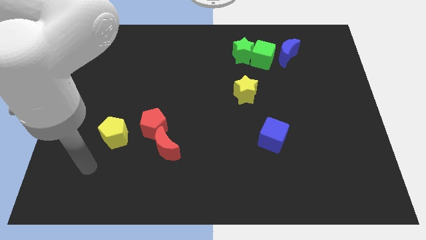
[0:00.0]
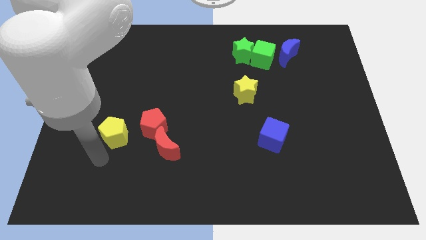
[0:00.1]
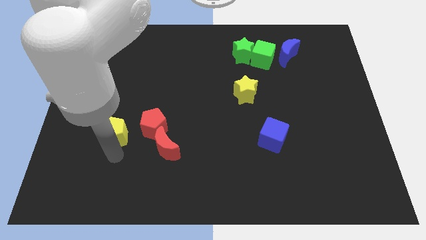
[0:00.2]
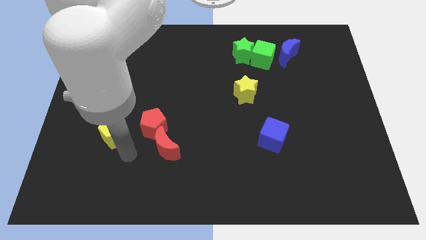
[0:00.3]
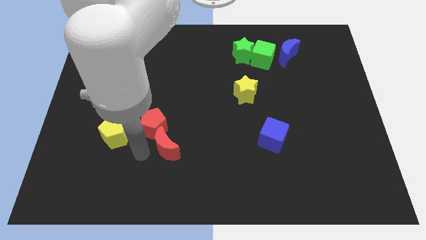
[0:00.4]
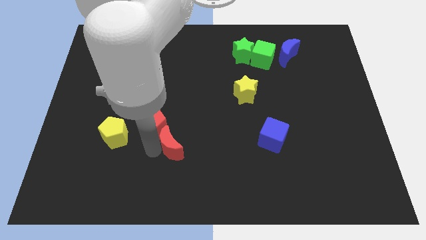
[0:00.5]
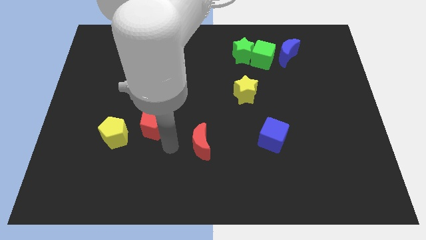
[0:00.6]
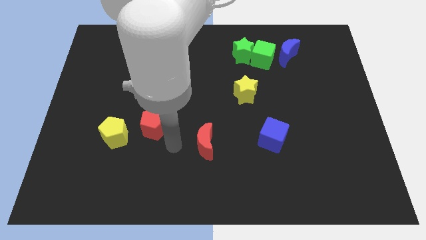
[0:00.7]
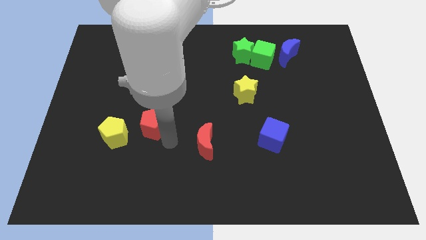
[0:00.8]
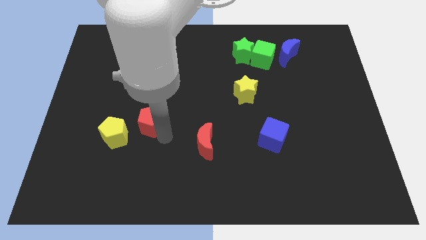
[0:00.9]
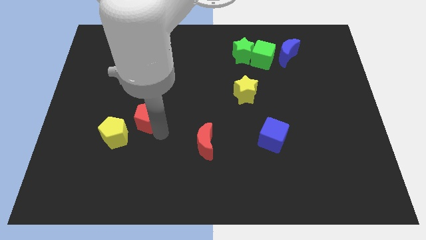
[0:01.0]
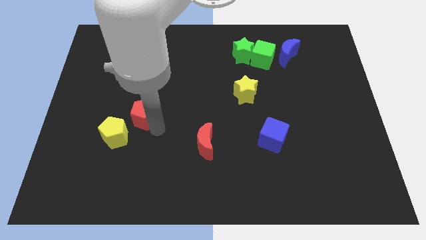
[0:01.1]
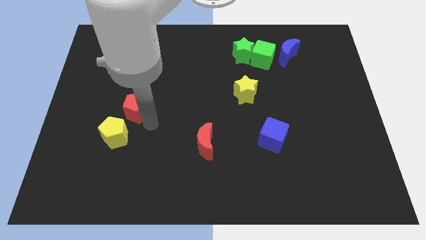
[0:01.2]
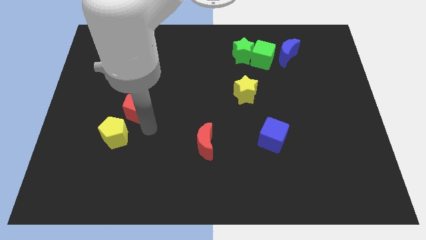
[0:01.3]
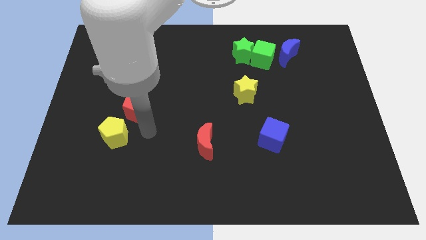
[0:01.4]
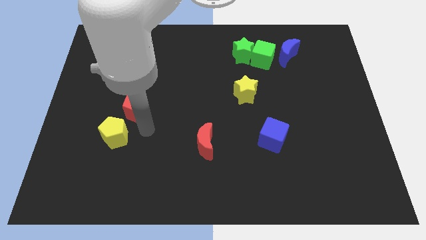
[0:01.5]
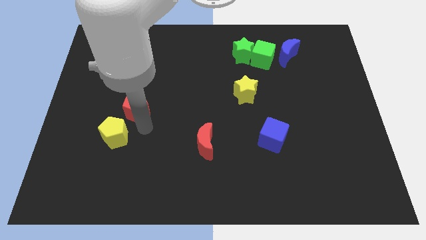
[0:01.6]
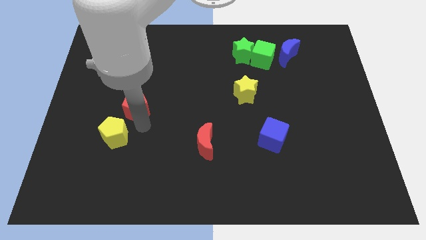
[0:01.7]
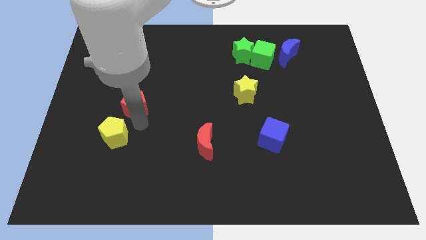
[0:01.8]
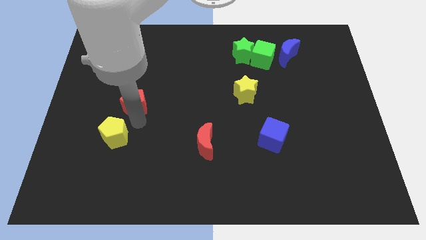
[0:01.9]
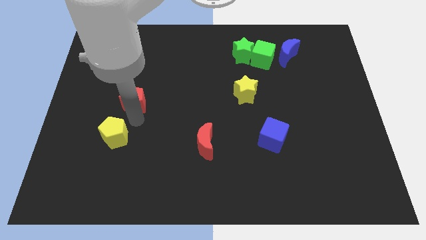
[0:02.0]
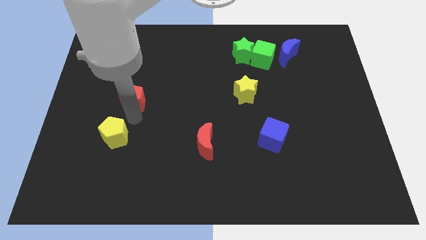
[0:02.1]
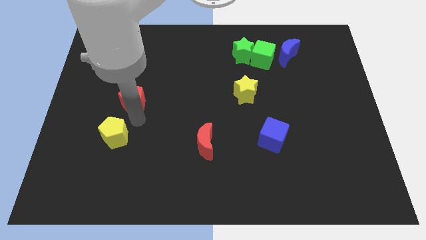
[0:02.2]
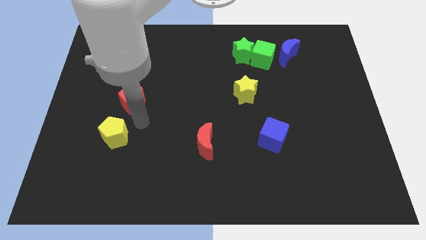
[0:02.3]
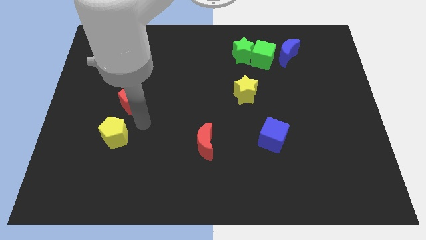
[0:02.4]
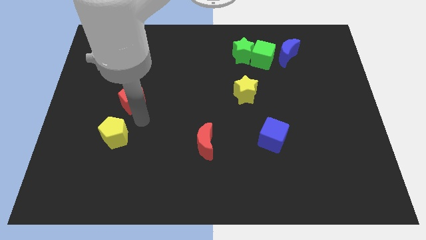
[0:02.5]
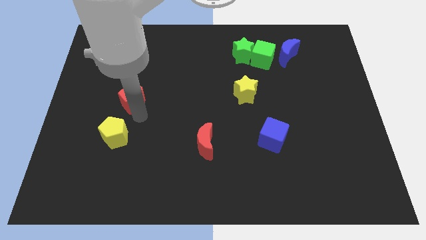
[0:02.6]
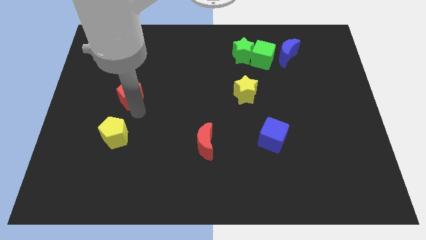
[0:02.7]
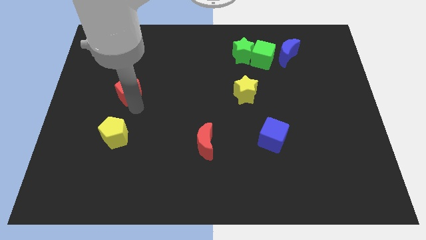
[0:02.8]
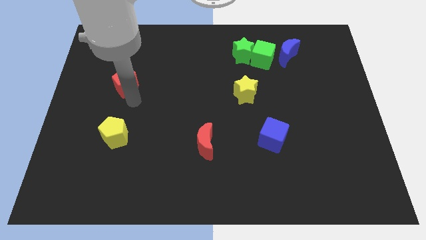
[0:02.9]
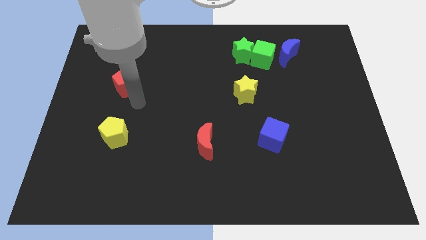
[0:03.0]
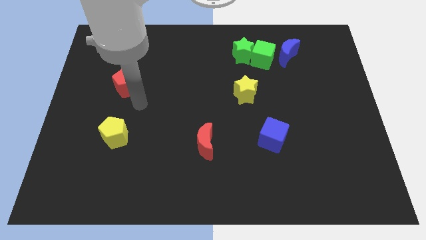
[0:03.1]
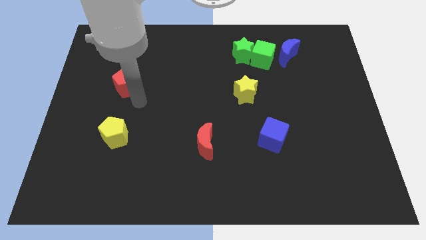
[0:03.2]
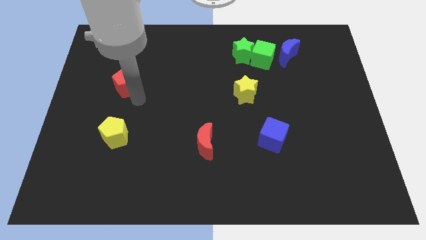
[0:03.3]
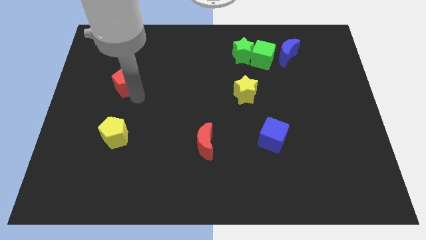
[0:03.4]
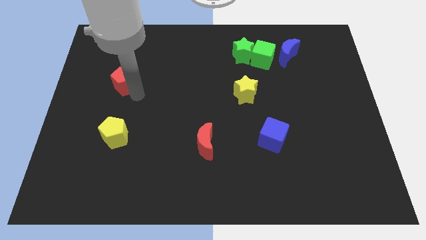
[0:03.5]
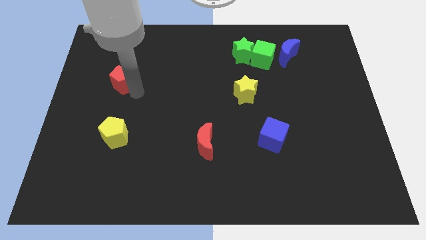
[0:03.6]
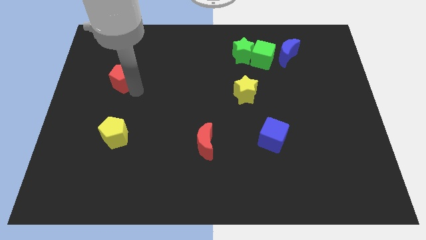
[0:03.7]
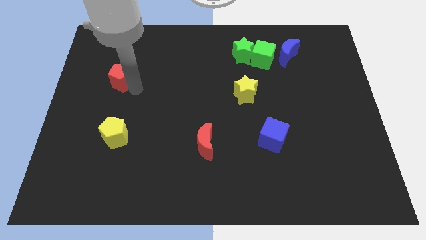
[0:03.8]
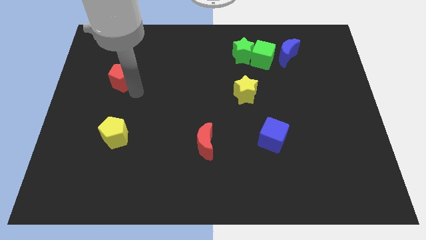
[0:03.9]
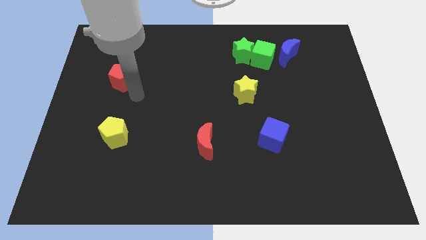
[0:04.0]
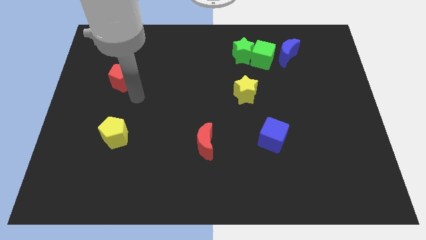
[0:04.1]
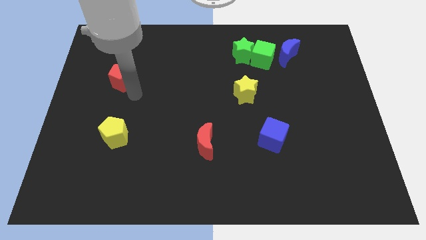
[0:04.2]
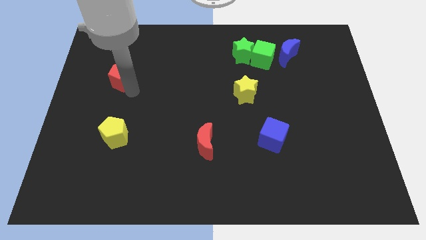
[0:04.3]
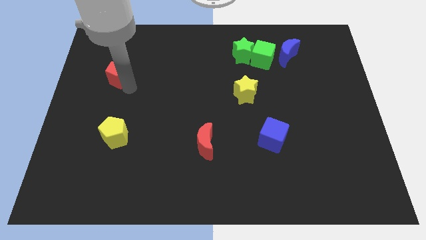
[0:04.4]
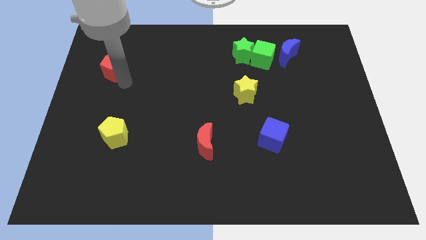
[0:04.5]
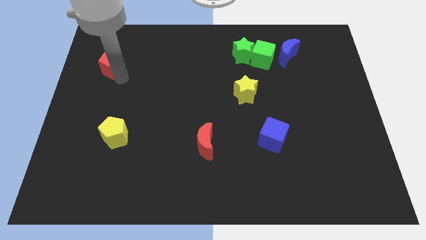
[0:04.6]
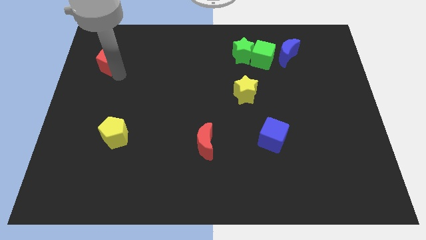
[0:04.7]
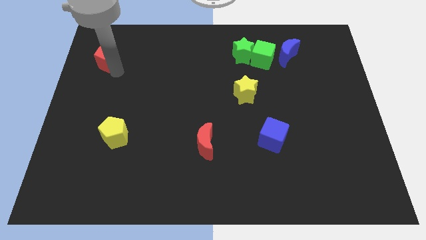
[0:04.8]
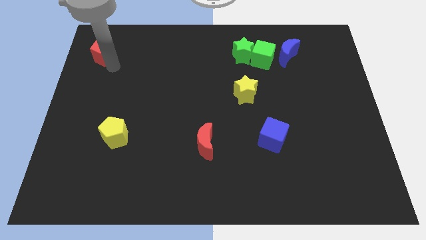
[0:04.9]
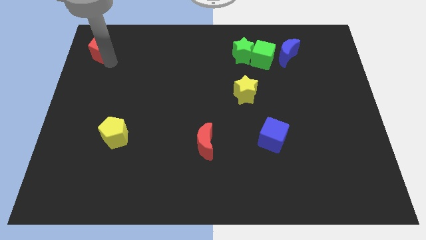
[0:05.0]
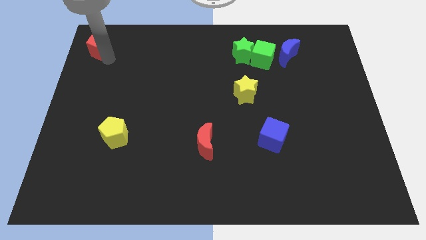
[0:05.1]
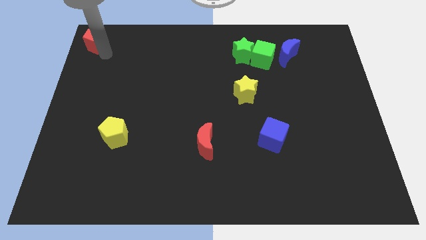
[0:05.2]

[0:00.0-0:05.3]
slide the red pentagon to the top left

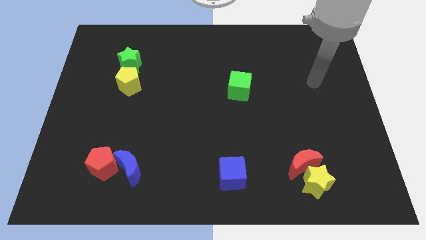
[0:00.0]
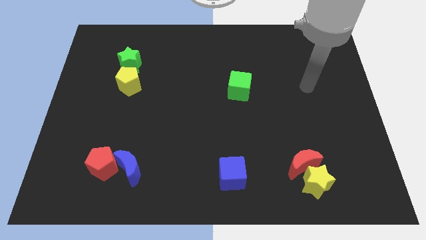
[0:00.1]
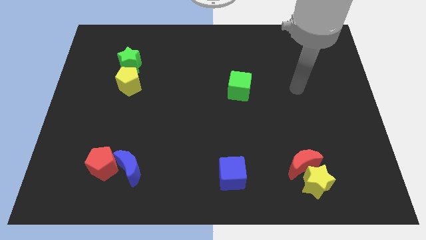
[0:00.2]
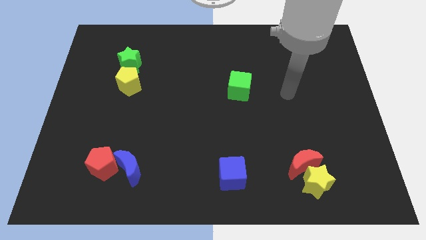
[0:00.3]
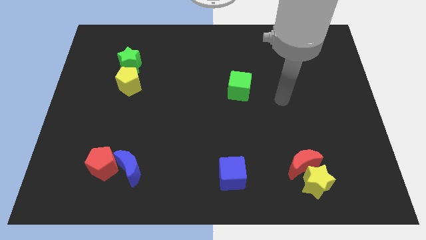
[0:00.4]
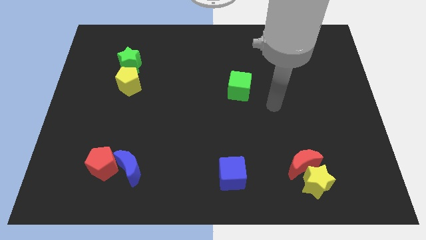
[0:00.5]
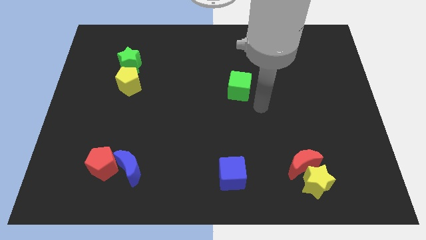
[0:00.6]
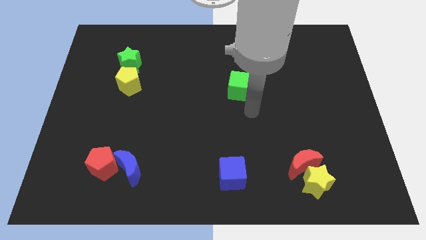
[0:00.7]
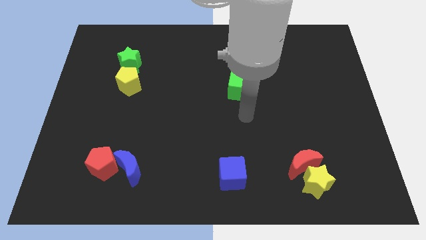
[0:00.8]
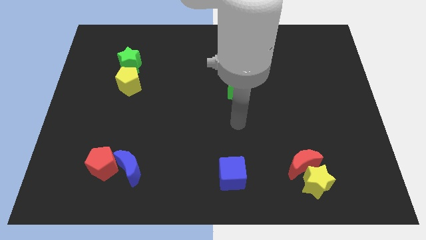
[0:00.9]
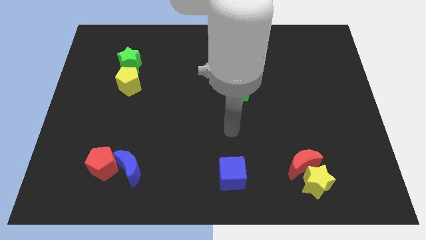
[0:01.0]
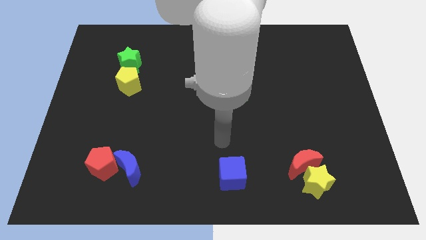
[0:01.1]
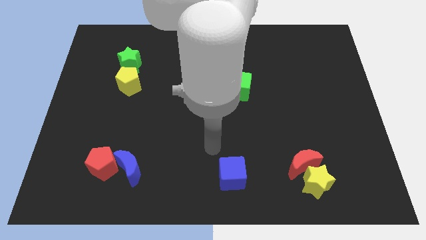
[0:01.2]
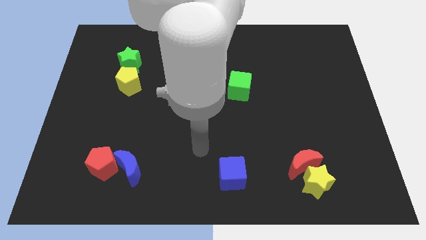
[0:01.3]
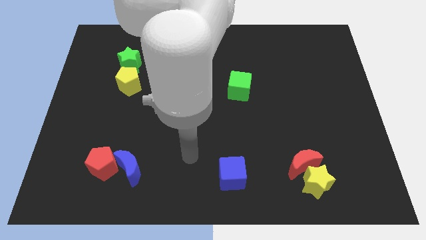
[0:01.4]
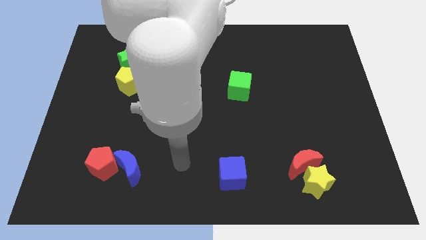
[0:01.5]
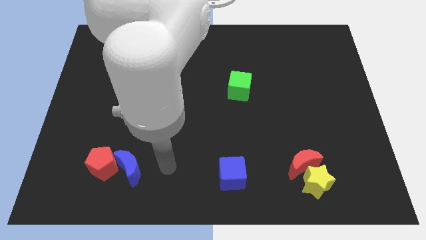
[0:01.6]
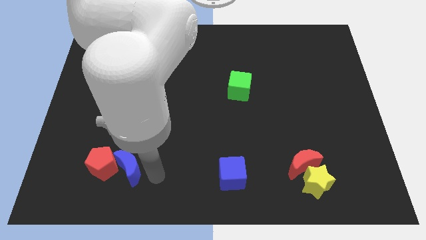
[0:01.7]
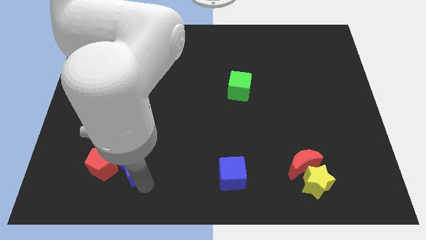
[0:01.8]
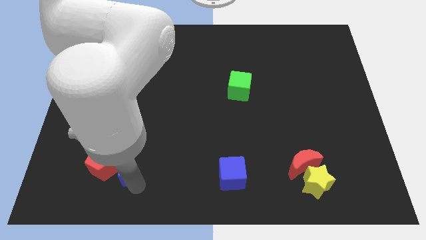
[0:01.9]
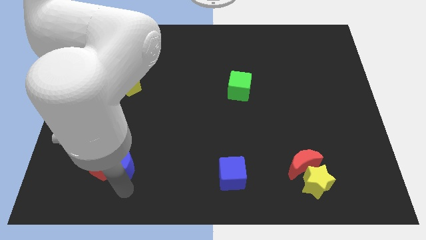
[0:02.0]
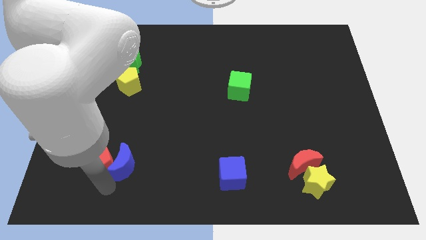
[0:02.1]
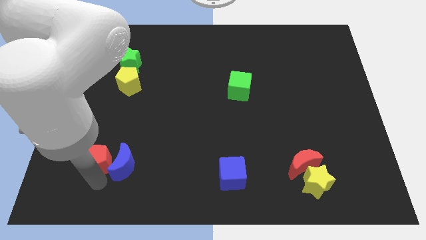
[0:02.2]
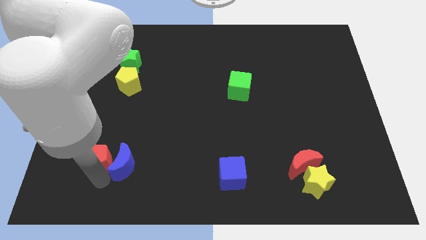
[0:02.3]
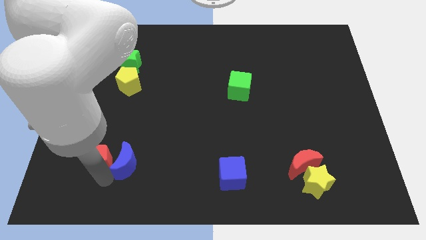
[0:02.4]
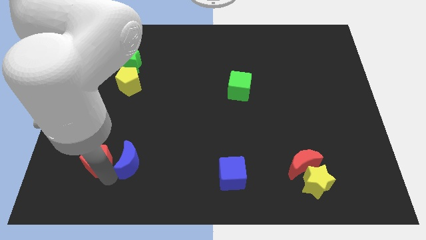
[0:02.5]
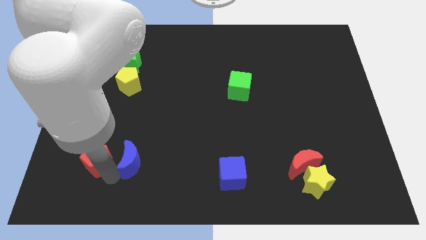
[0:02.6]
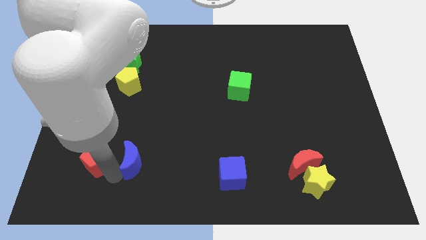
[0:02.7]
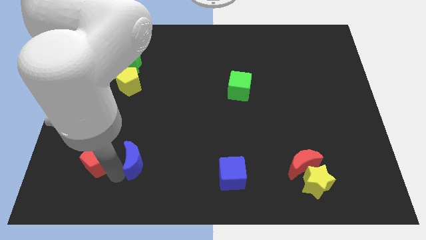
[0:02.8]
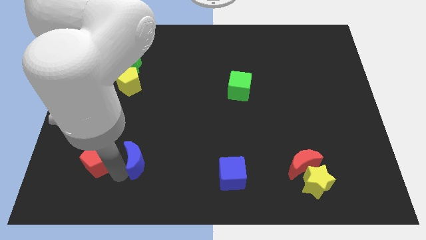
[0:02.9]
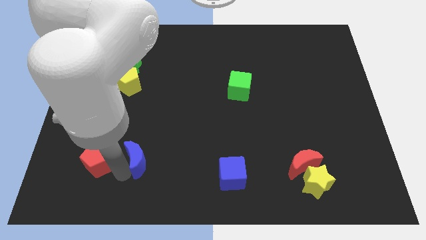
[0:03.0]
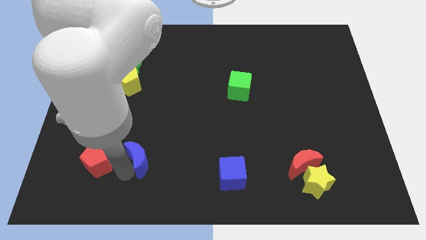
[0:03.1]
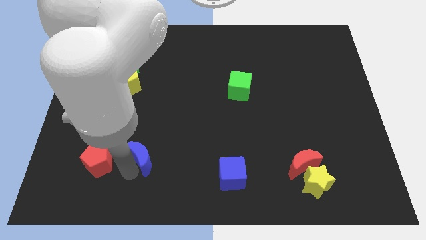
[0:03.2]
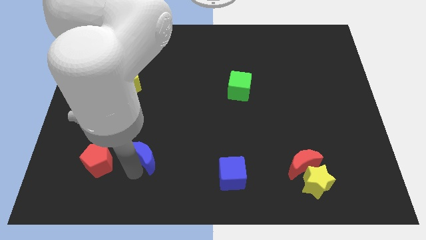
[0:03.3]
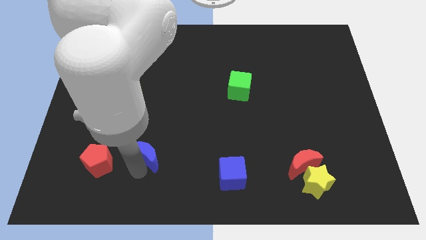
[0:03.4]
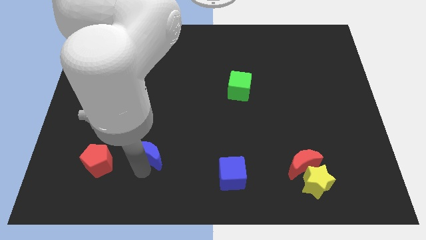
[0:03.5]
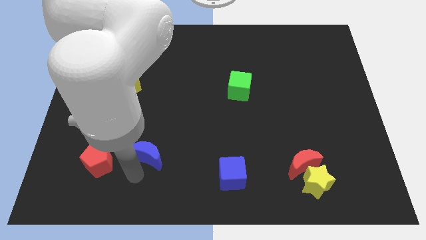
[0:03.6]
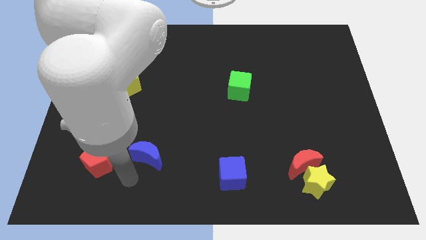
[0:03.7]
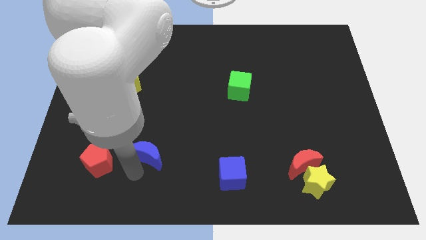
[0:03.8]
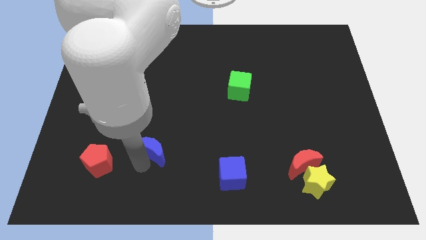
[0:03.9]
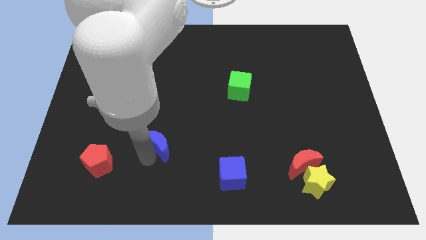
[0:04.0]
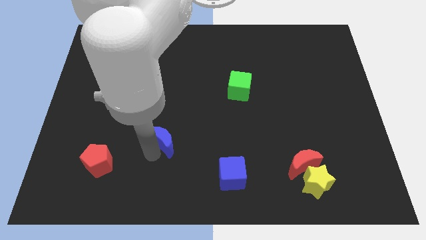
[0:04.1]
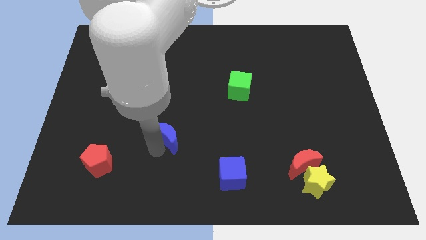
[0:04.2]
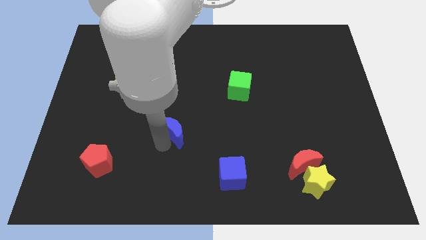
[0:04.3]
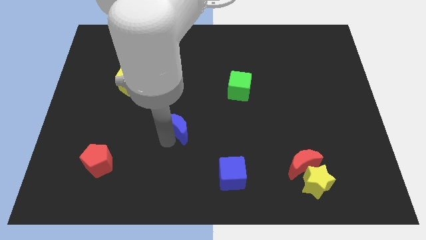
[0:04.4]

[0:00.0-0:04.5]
push the blue moon to the middle of the board
